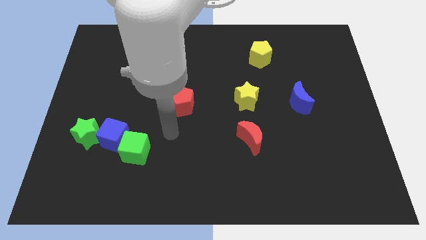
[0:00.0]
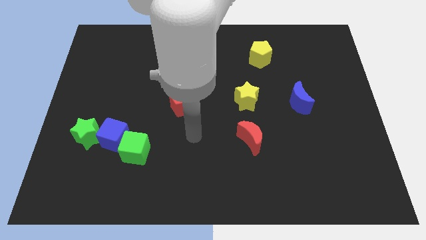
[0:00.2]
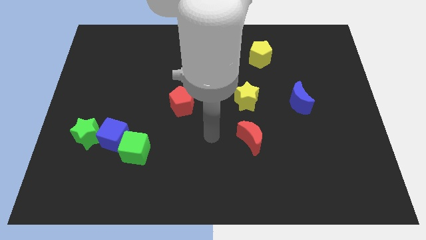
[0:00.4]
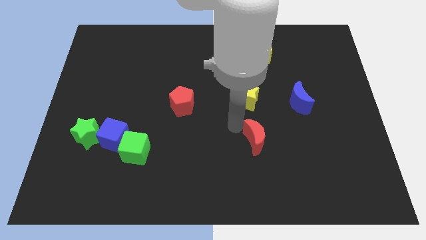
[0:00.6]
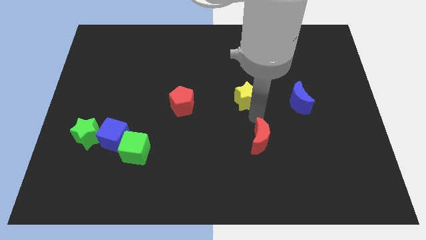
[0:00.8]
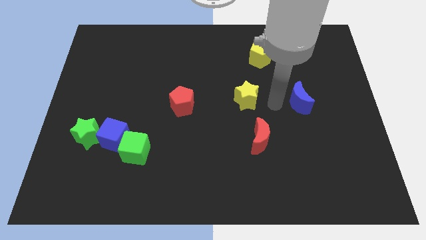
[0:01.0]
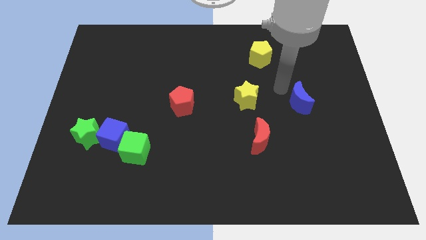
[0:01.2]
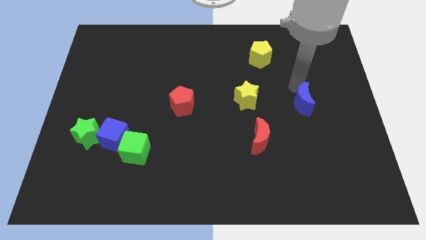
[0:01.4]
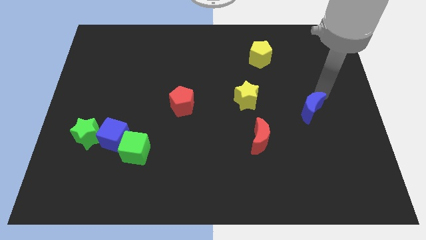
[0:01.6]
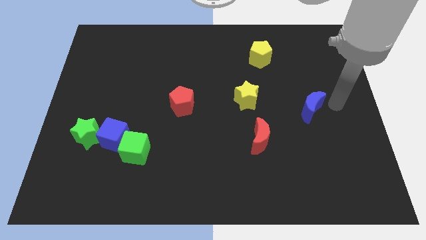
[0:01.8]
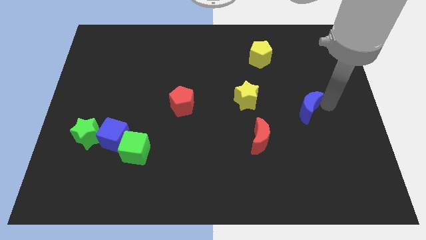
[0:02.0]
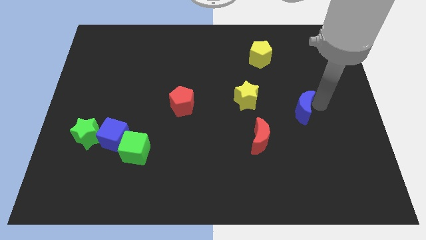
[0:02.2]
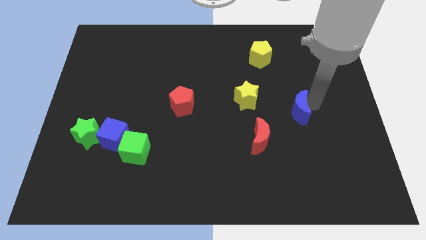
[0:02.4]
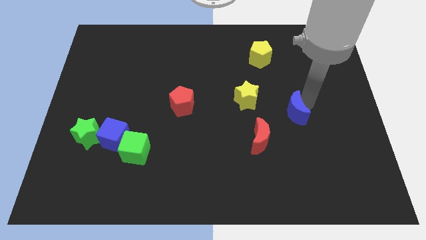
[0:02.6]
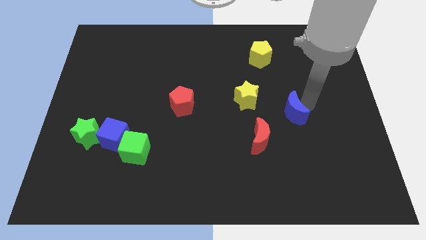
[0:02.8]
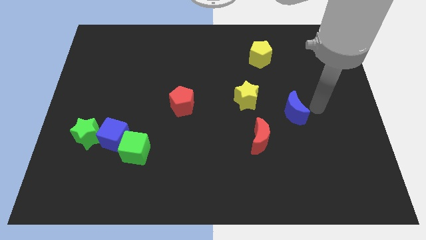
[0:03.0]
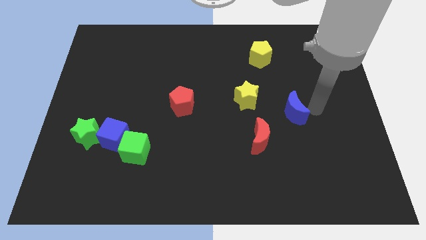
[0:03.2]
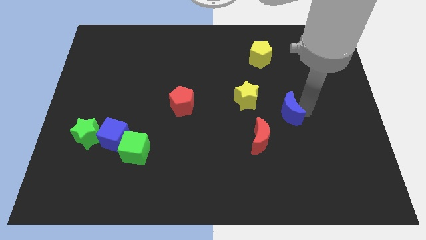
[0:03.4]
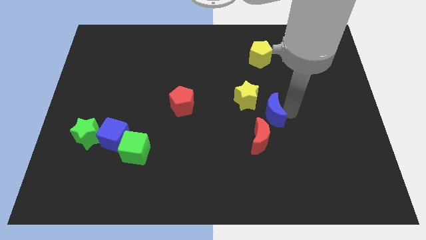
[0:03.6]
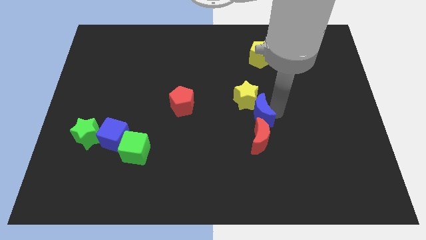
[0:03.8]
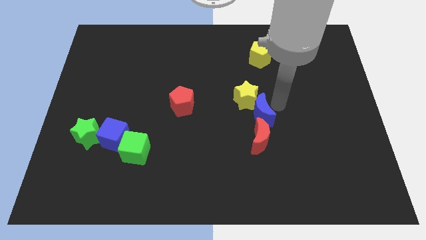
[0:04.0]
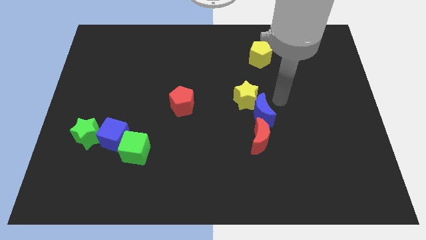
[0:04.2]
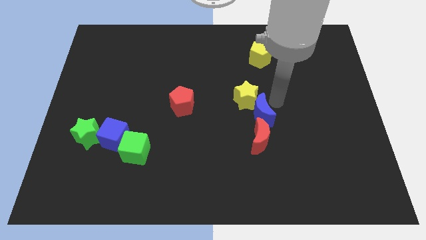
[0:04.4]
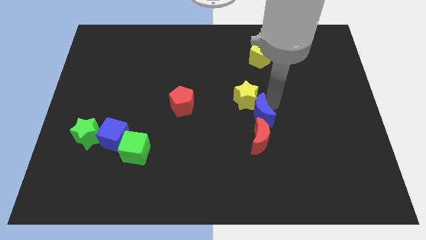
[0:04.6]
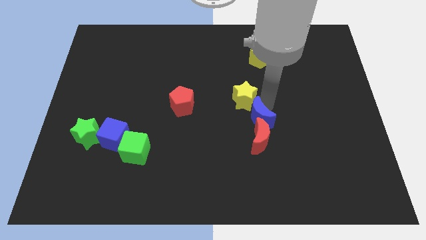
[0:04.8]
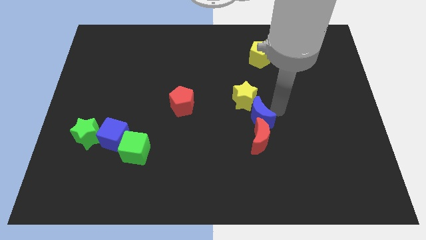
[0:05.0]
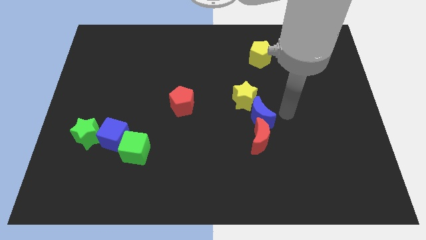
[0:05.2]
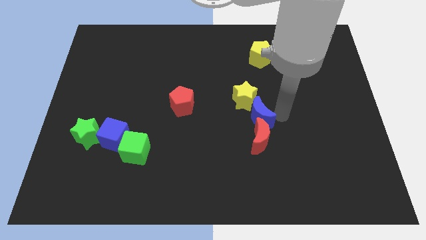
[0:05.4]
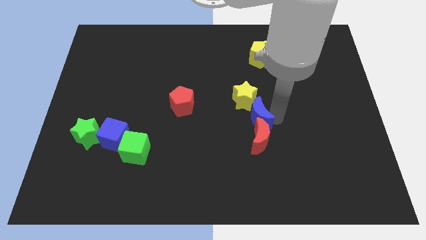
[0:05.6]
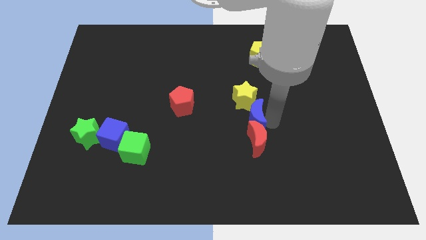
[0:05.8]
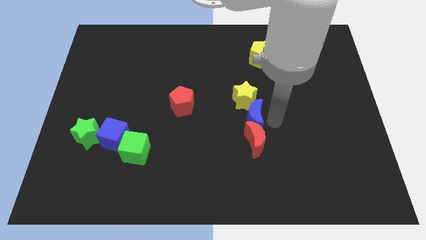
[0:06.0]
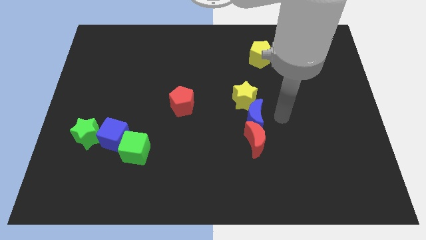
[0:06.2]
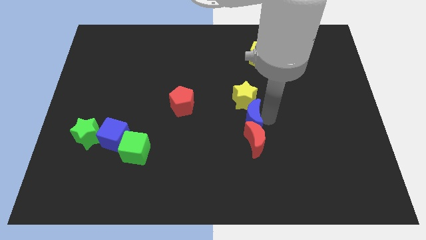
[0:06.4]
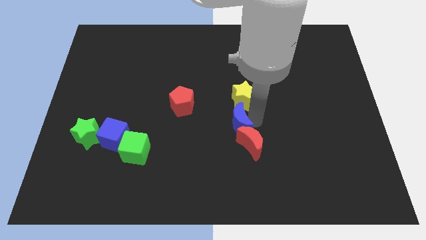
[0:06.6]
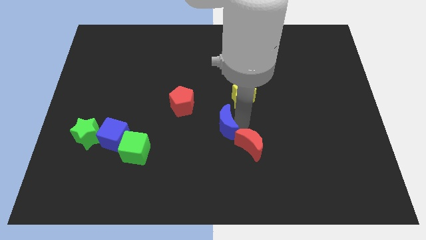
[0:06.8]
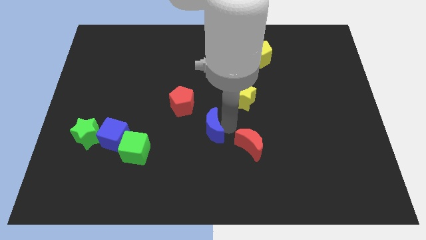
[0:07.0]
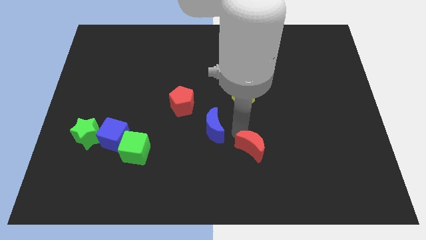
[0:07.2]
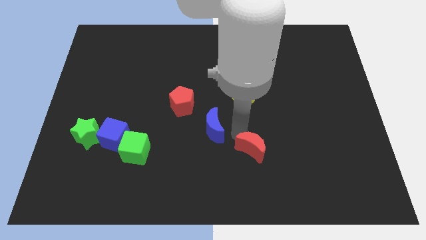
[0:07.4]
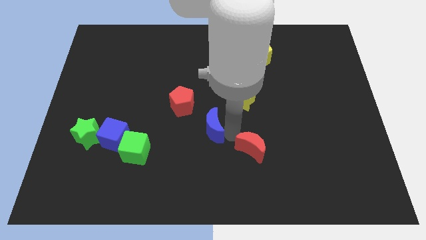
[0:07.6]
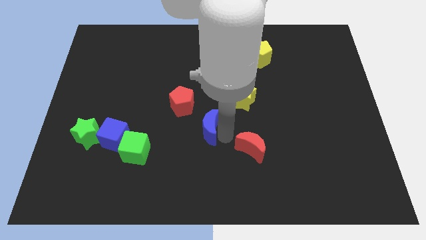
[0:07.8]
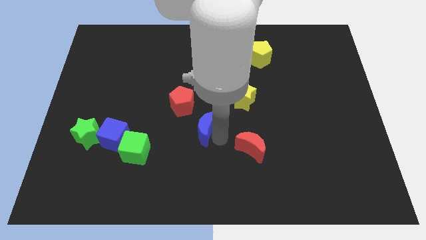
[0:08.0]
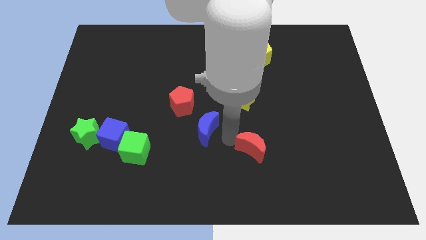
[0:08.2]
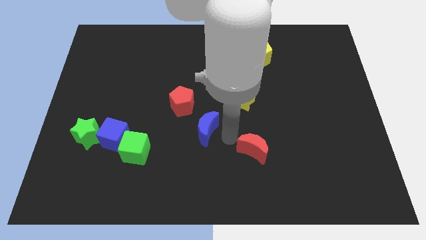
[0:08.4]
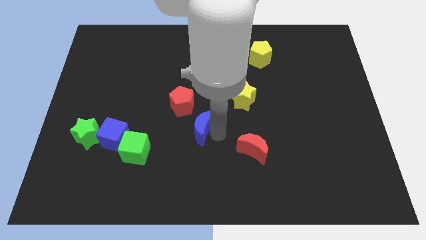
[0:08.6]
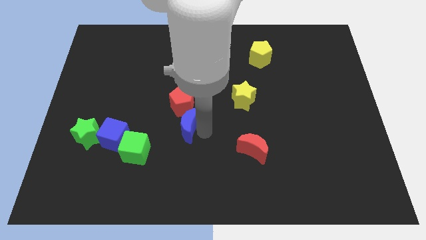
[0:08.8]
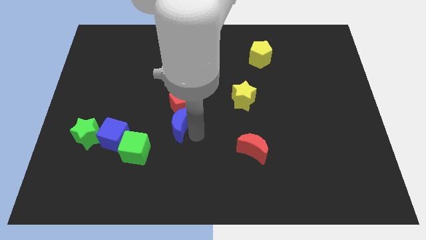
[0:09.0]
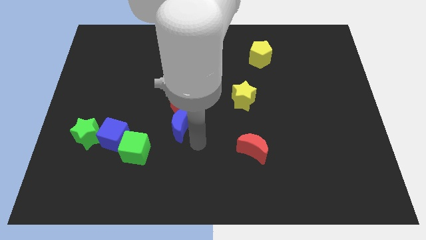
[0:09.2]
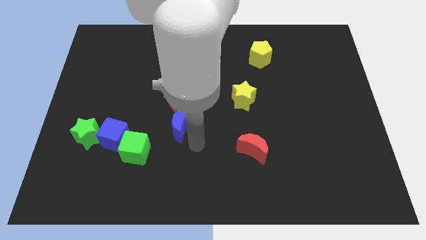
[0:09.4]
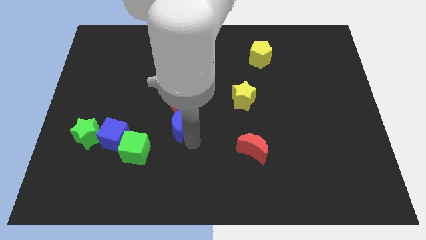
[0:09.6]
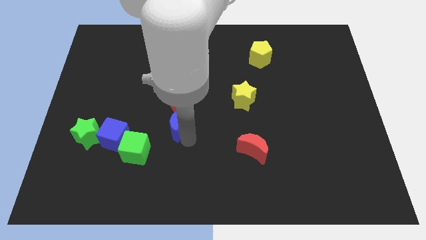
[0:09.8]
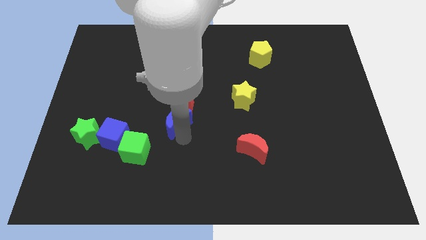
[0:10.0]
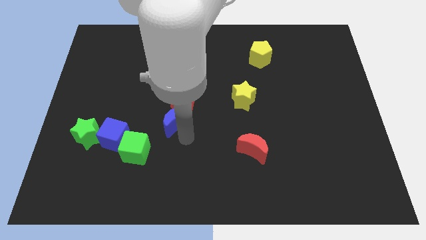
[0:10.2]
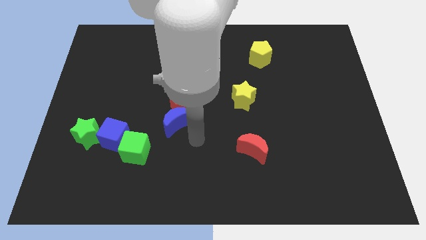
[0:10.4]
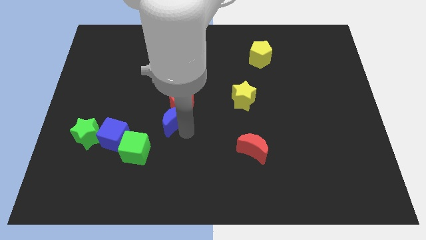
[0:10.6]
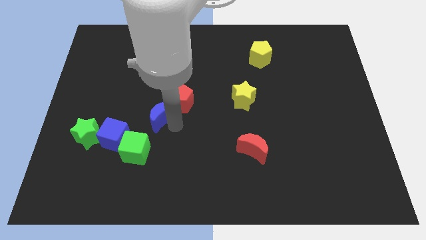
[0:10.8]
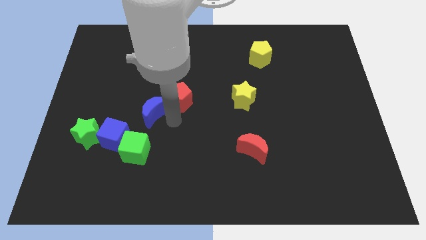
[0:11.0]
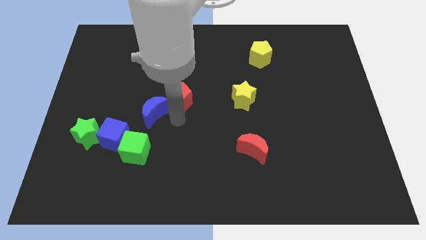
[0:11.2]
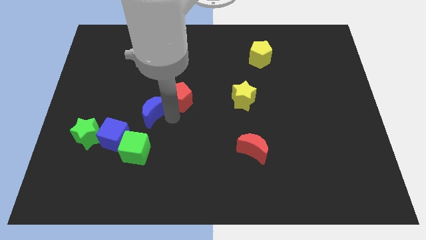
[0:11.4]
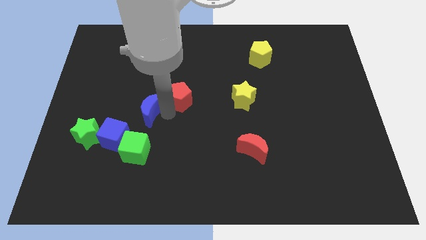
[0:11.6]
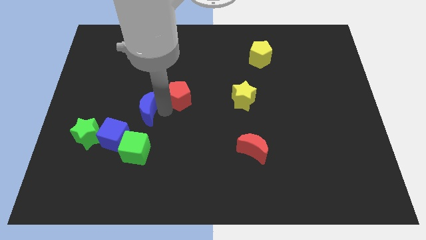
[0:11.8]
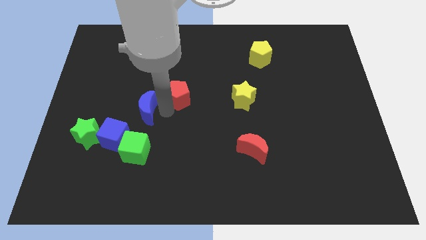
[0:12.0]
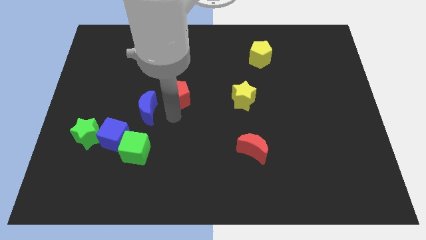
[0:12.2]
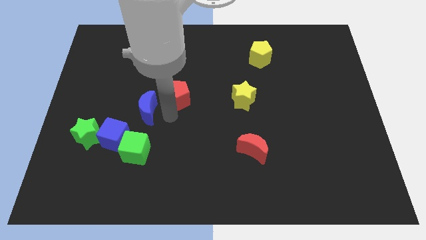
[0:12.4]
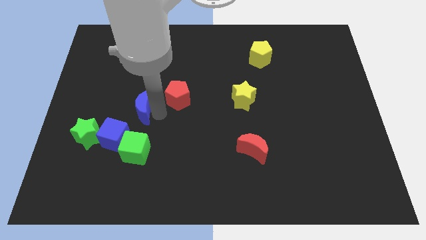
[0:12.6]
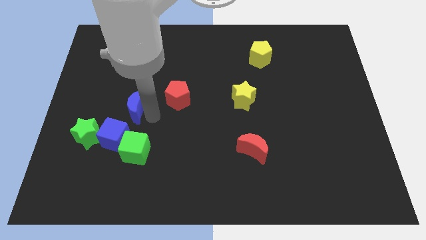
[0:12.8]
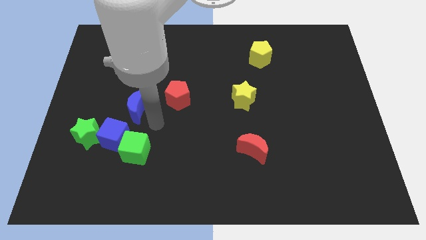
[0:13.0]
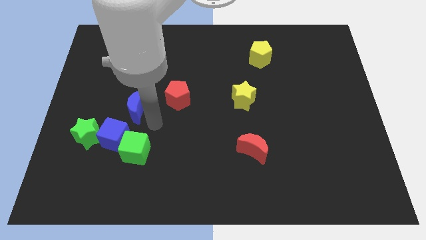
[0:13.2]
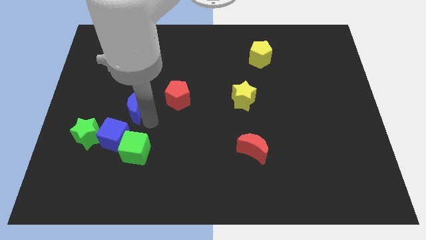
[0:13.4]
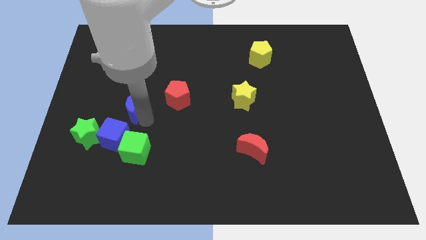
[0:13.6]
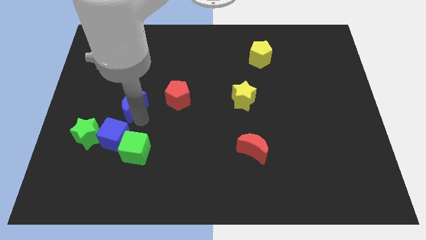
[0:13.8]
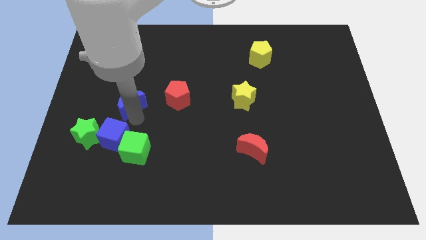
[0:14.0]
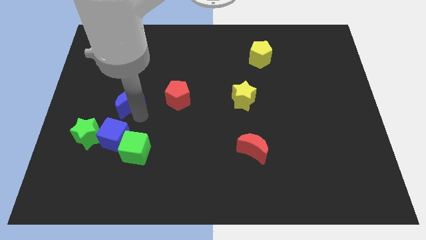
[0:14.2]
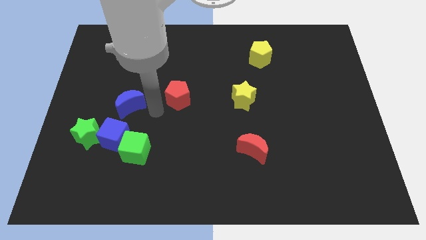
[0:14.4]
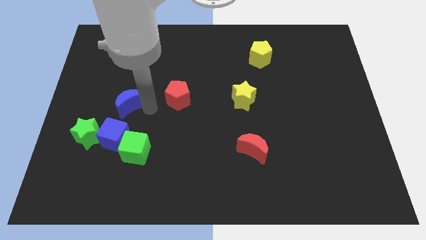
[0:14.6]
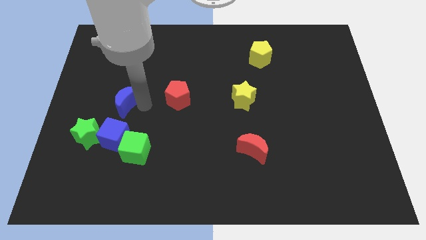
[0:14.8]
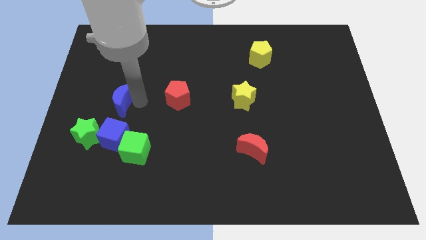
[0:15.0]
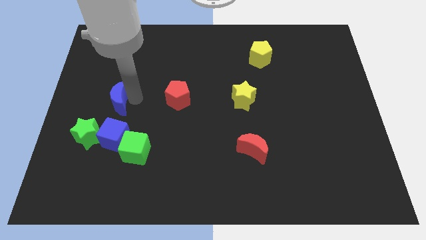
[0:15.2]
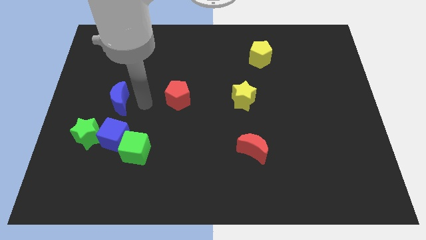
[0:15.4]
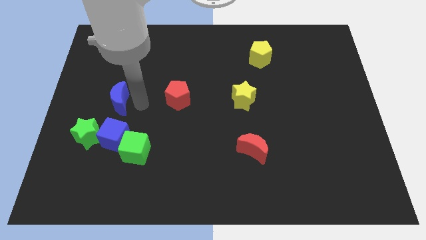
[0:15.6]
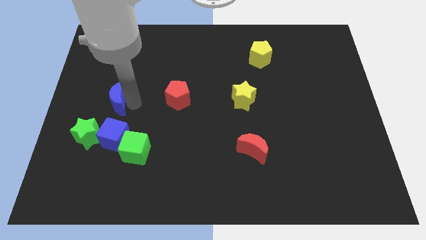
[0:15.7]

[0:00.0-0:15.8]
move the blue moon to the top side of the green star
